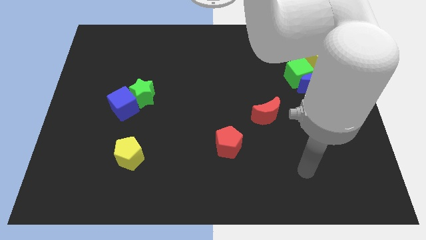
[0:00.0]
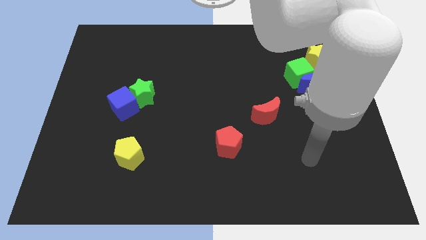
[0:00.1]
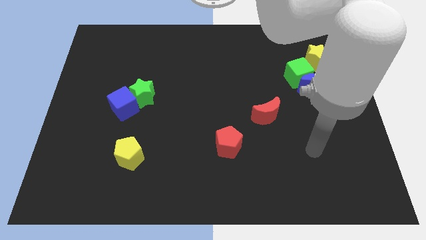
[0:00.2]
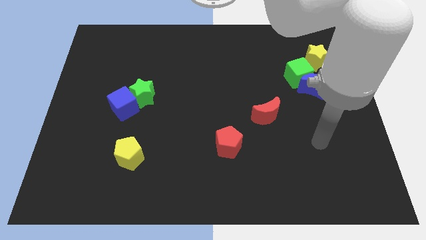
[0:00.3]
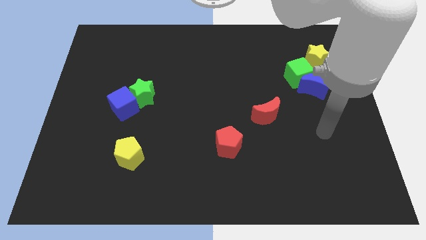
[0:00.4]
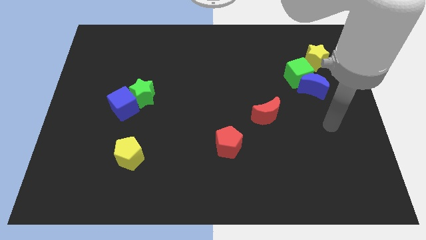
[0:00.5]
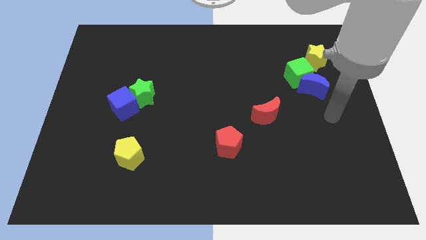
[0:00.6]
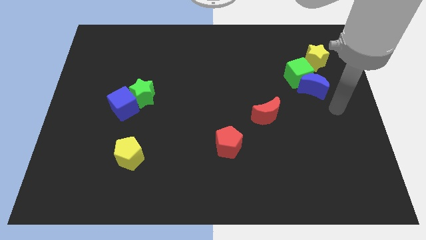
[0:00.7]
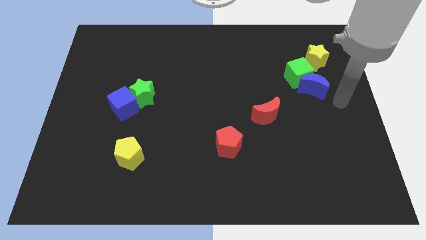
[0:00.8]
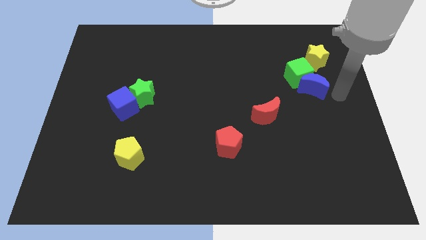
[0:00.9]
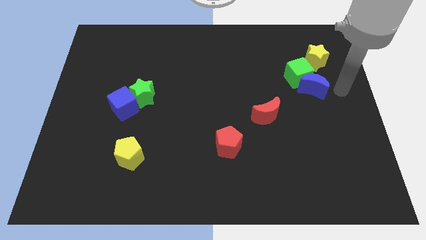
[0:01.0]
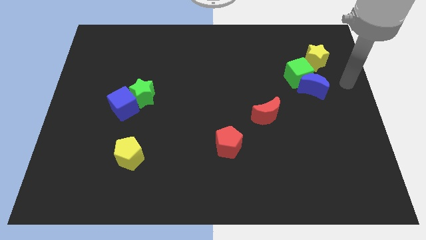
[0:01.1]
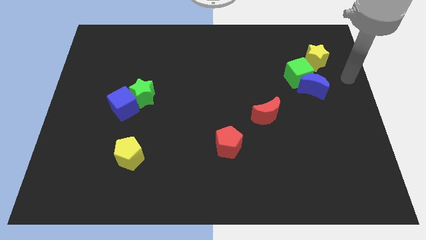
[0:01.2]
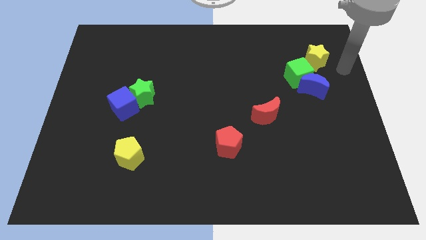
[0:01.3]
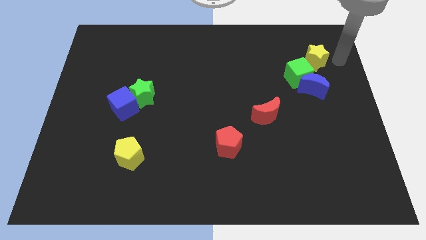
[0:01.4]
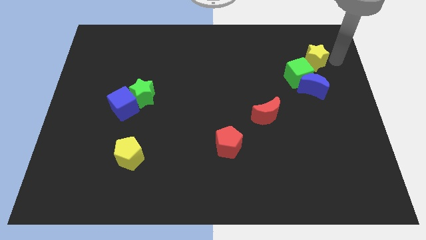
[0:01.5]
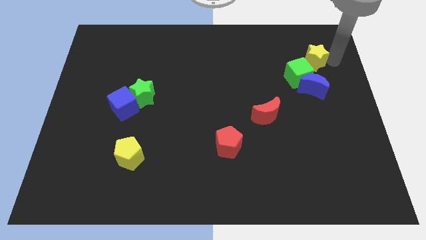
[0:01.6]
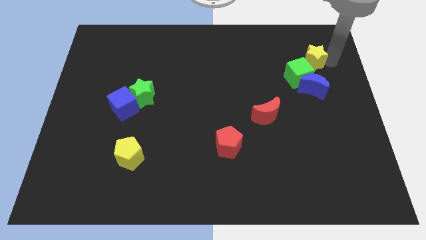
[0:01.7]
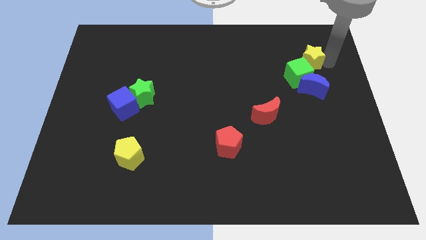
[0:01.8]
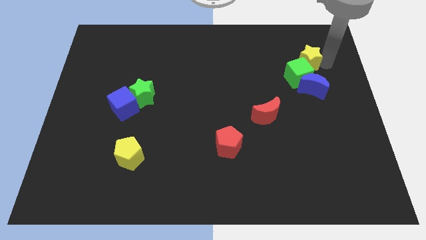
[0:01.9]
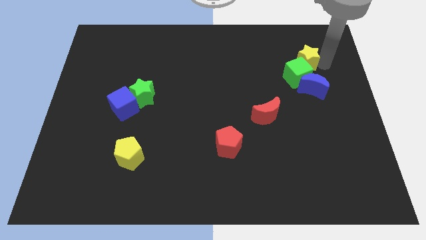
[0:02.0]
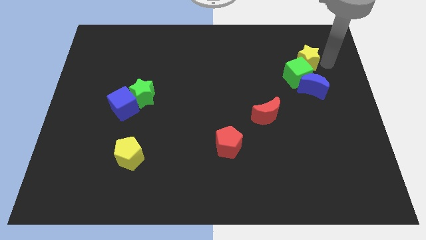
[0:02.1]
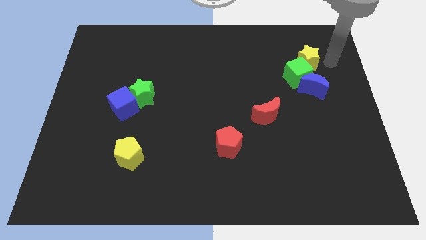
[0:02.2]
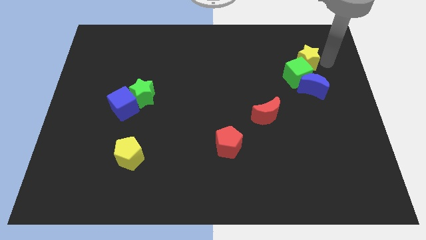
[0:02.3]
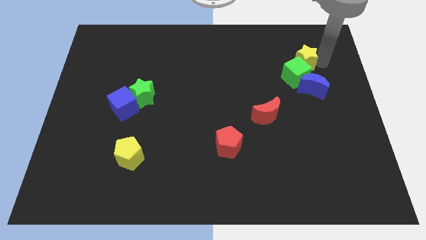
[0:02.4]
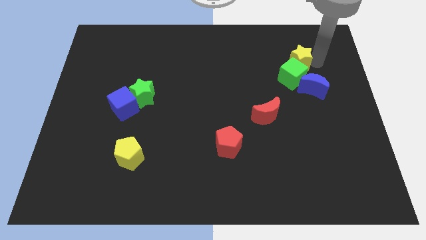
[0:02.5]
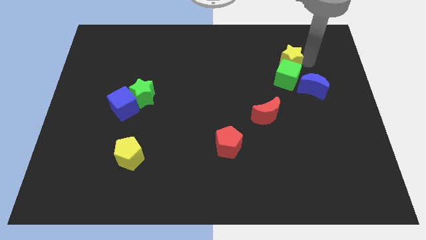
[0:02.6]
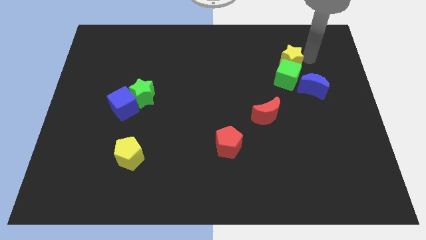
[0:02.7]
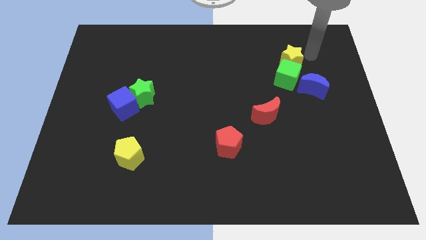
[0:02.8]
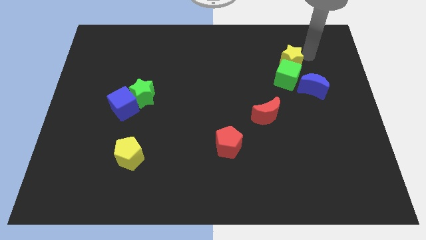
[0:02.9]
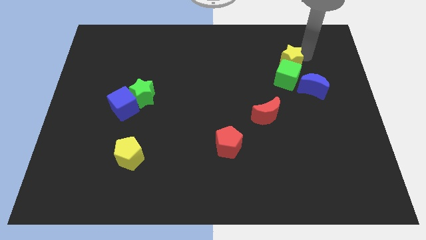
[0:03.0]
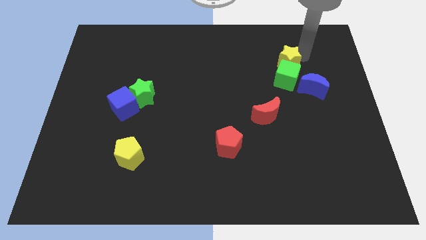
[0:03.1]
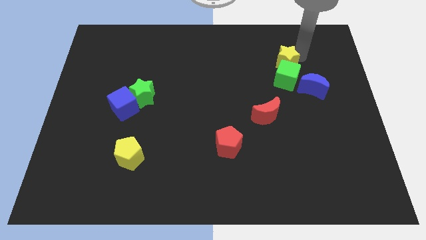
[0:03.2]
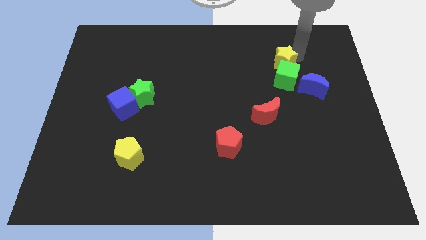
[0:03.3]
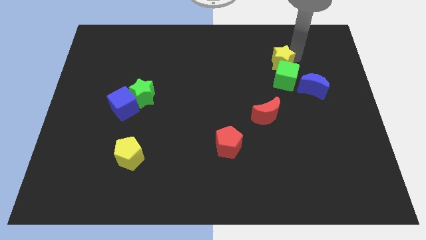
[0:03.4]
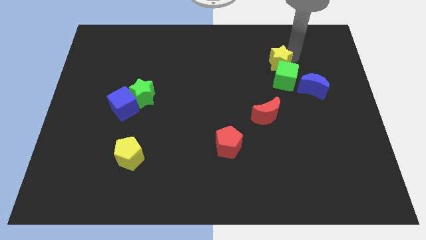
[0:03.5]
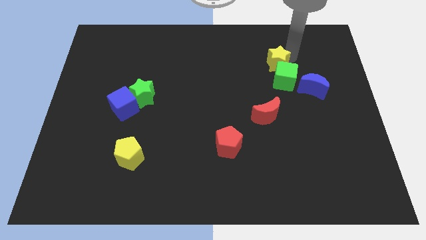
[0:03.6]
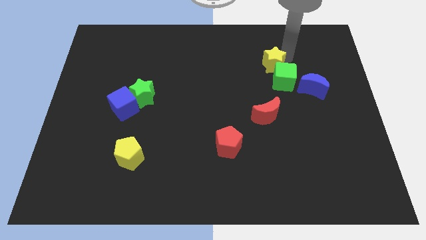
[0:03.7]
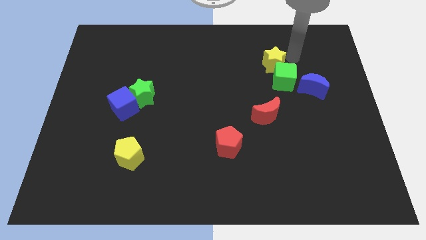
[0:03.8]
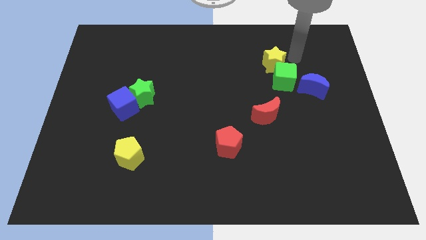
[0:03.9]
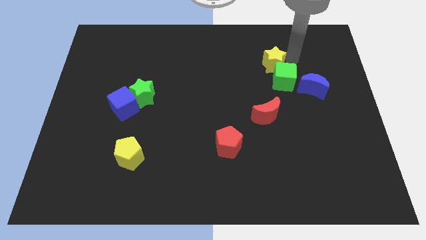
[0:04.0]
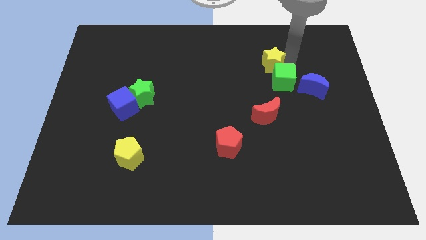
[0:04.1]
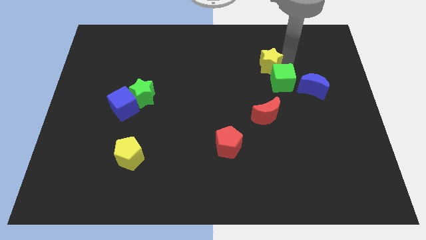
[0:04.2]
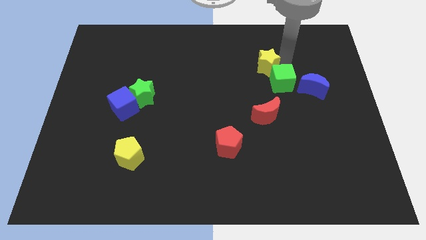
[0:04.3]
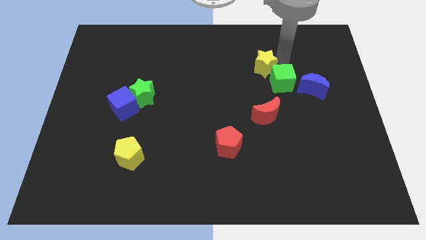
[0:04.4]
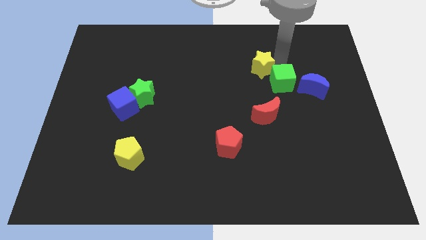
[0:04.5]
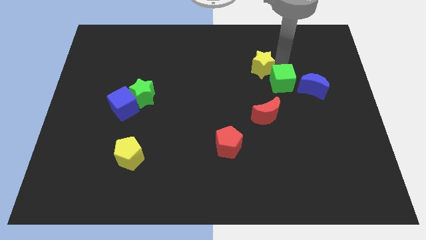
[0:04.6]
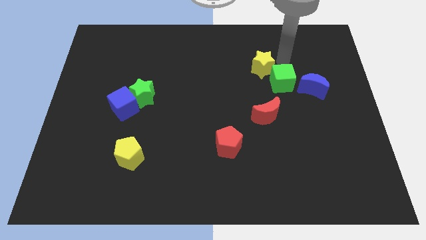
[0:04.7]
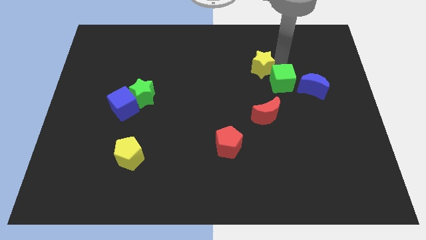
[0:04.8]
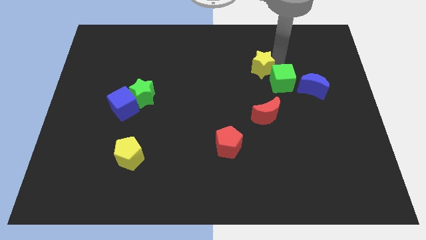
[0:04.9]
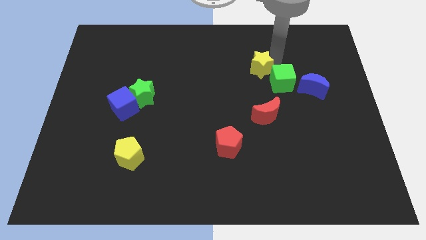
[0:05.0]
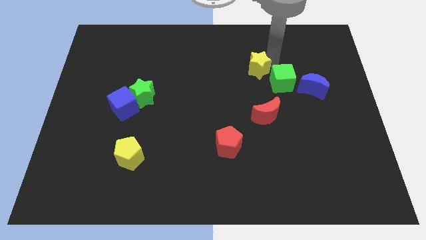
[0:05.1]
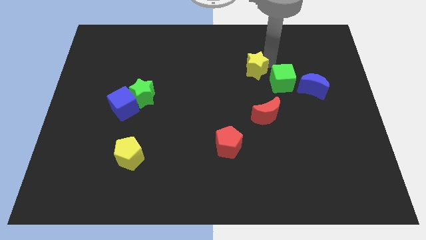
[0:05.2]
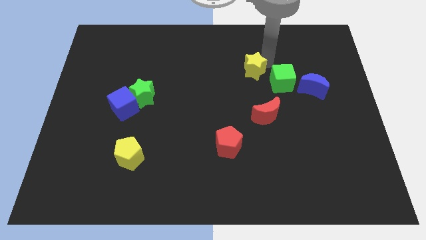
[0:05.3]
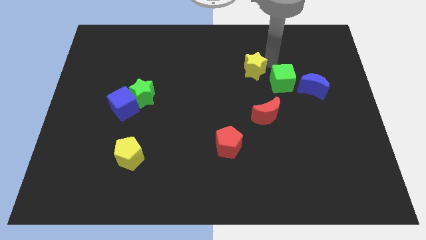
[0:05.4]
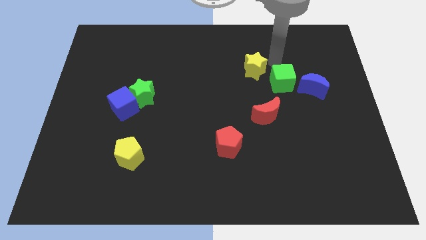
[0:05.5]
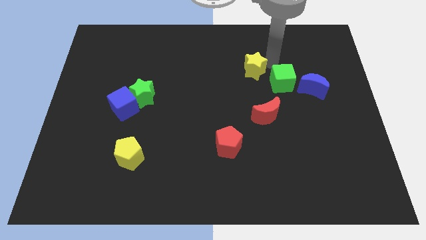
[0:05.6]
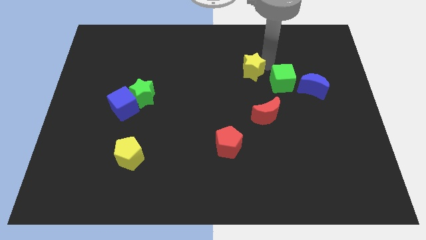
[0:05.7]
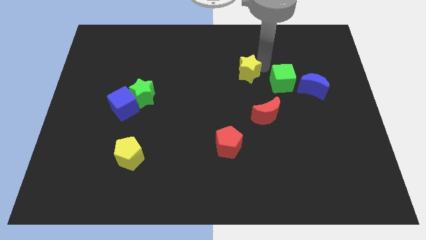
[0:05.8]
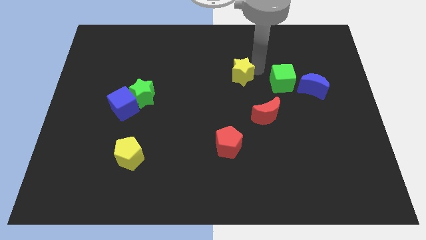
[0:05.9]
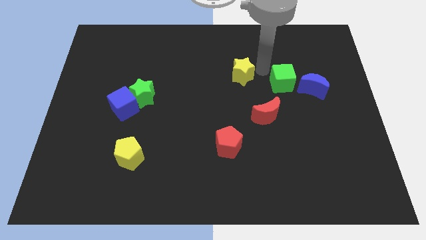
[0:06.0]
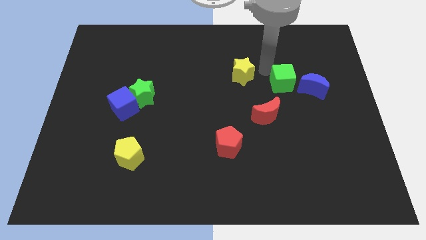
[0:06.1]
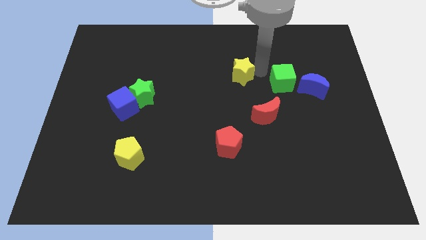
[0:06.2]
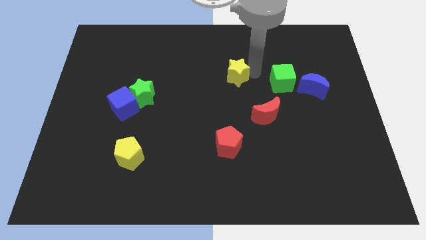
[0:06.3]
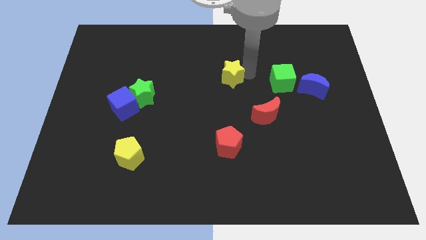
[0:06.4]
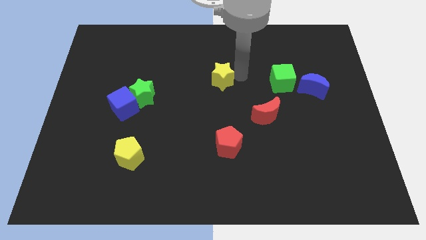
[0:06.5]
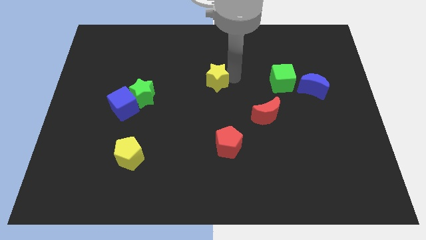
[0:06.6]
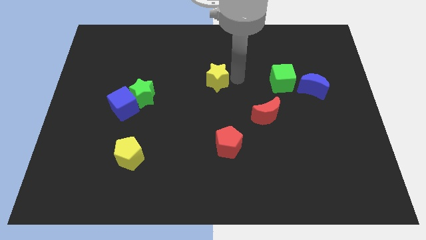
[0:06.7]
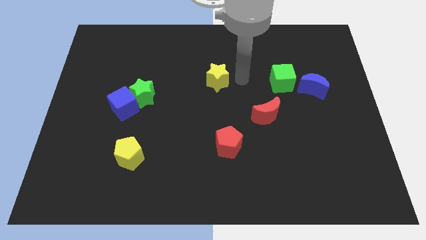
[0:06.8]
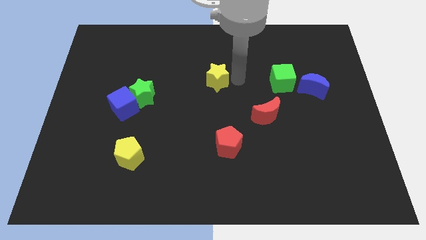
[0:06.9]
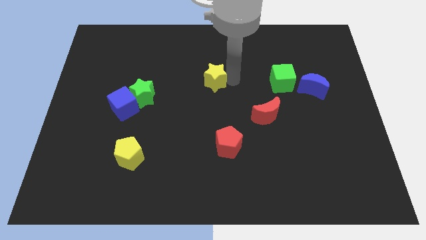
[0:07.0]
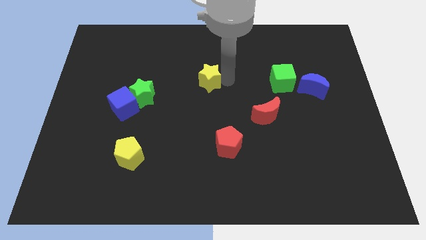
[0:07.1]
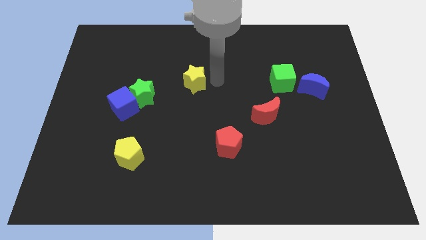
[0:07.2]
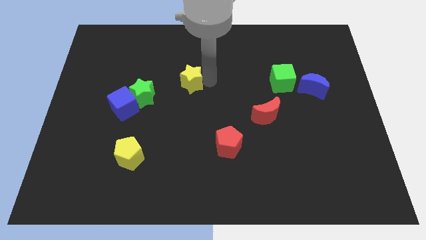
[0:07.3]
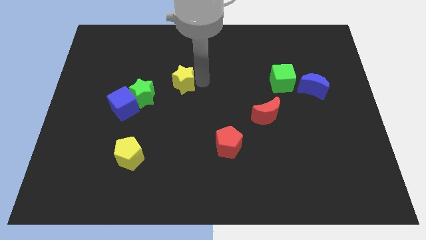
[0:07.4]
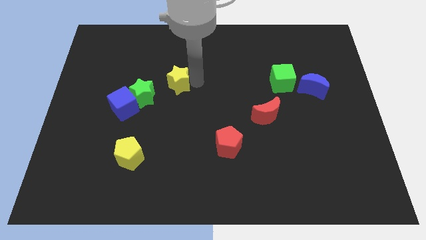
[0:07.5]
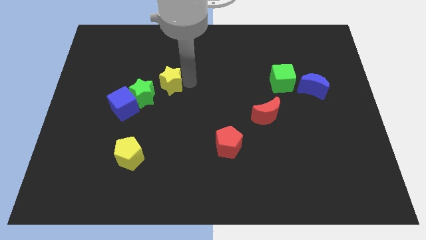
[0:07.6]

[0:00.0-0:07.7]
push the yellow star diagonally up and to the right of the blue cube

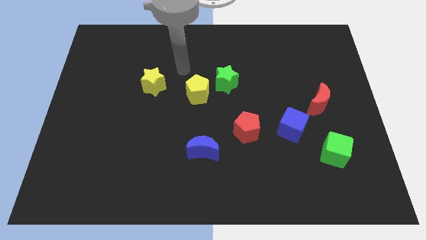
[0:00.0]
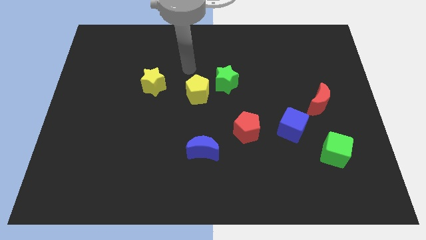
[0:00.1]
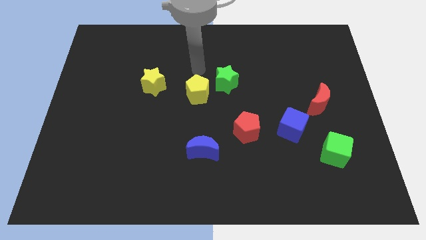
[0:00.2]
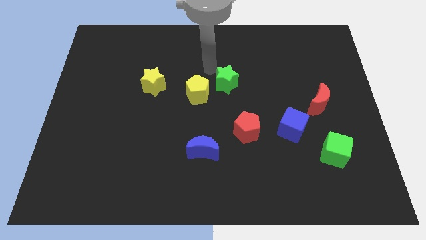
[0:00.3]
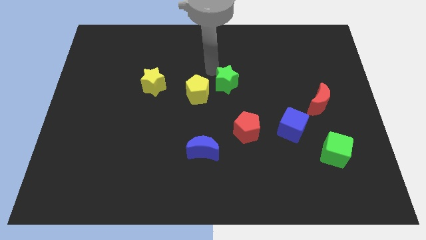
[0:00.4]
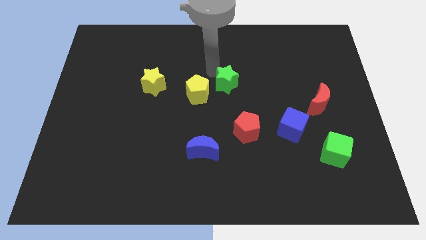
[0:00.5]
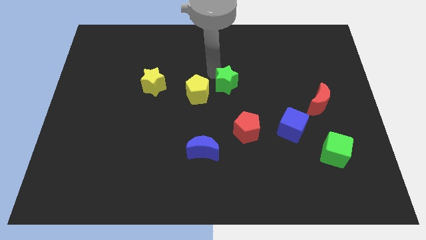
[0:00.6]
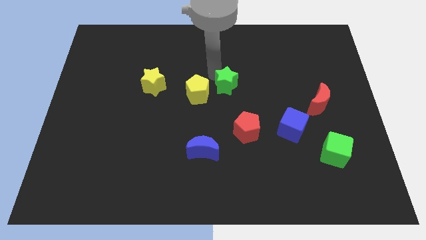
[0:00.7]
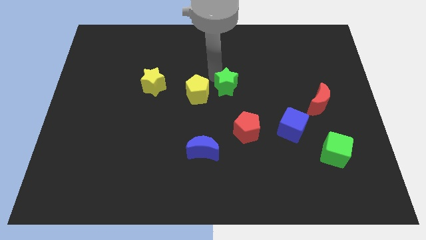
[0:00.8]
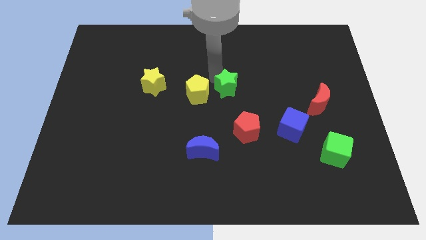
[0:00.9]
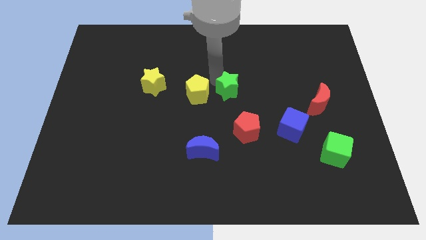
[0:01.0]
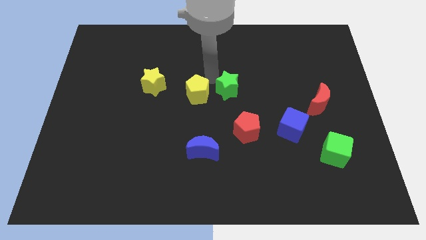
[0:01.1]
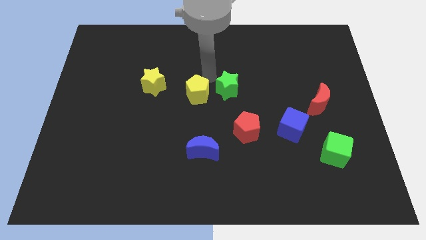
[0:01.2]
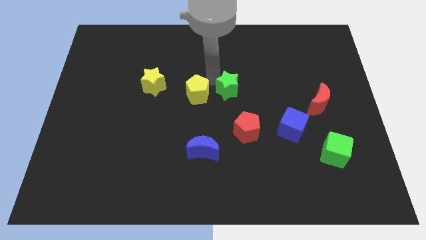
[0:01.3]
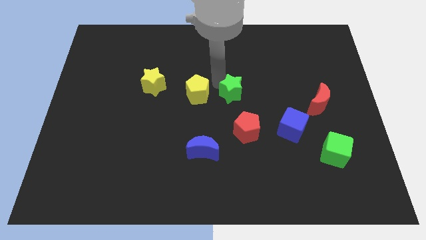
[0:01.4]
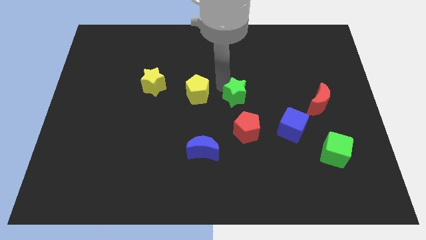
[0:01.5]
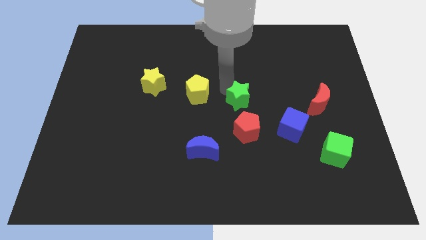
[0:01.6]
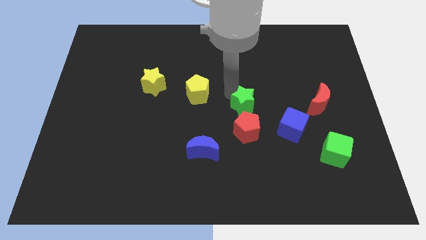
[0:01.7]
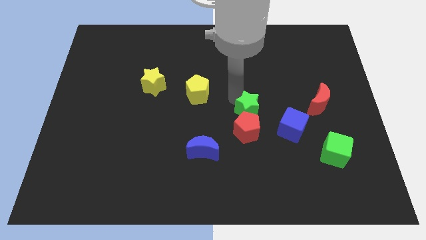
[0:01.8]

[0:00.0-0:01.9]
slide the green star to the top right side of the red pentagon
